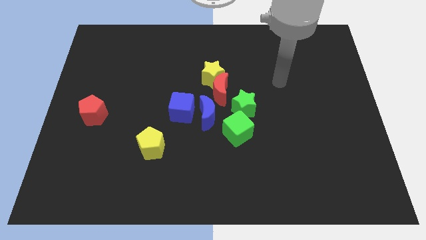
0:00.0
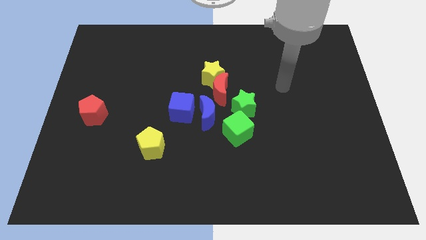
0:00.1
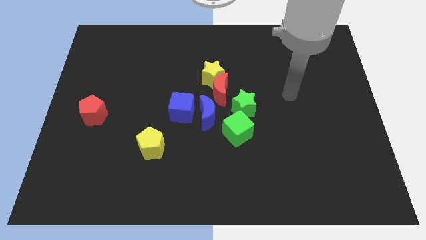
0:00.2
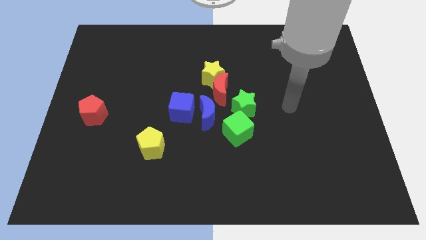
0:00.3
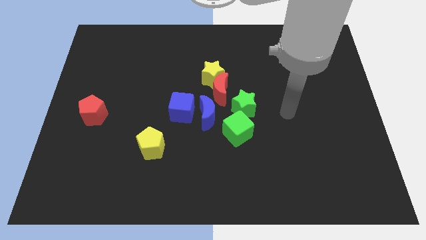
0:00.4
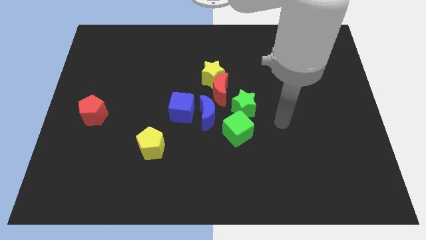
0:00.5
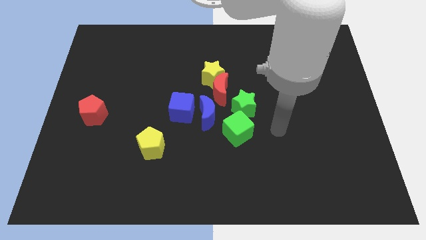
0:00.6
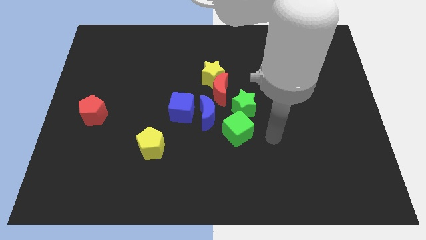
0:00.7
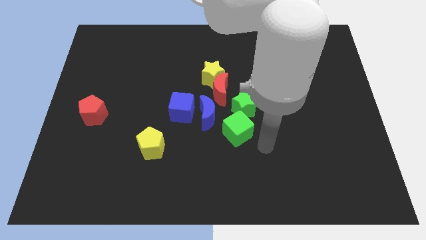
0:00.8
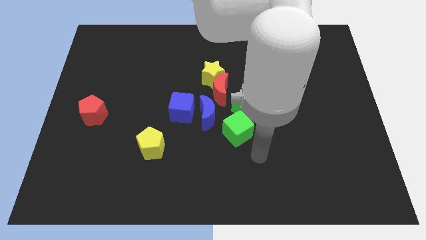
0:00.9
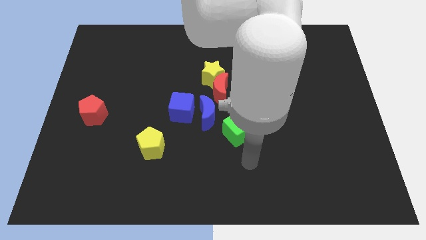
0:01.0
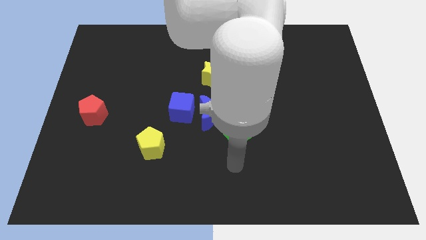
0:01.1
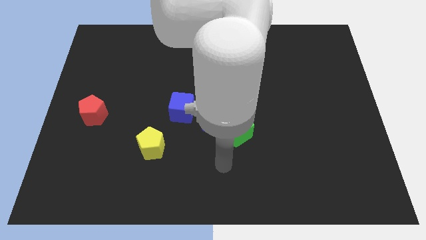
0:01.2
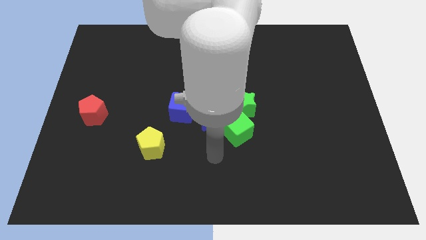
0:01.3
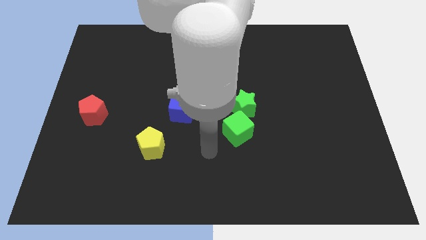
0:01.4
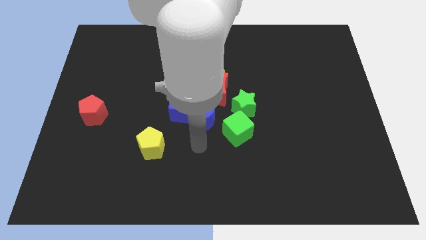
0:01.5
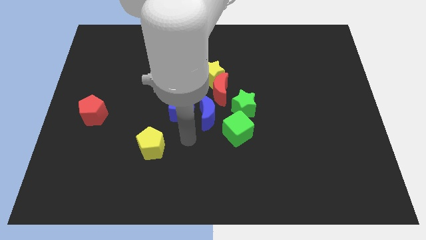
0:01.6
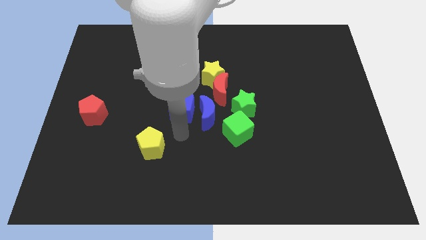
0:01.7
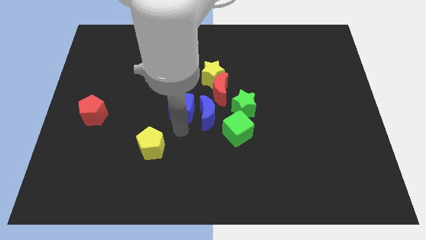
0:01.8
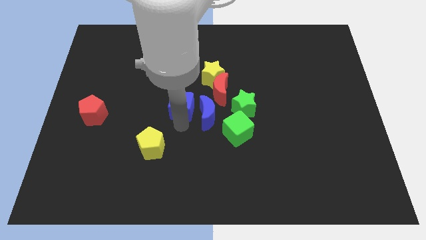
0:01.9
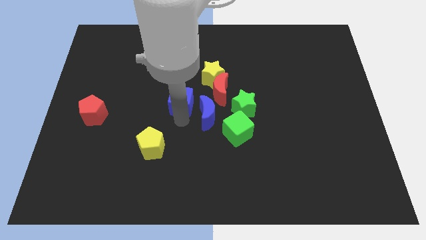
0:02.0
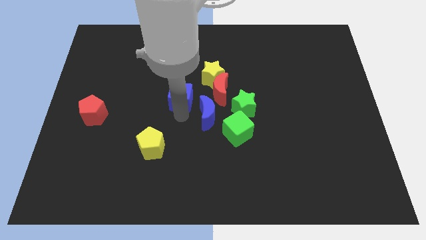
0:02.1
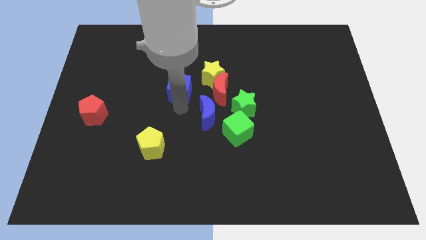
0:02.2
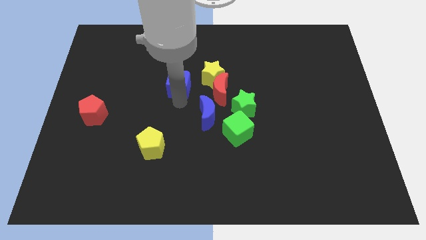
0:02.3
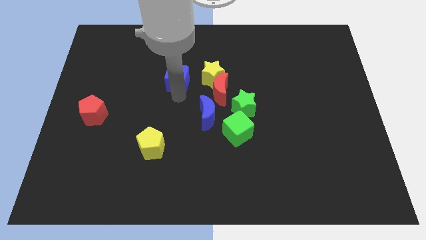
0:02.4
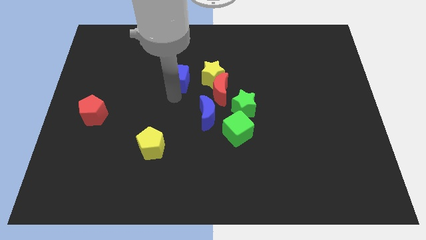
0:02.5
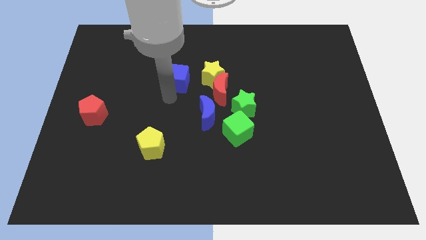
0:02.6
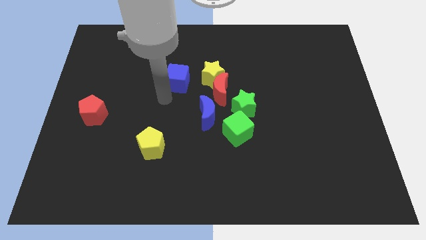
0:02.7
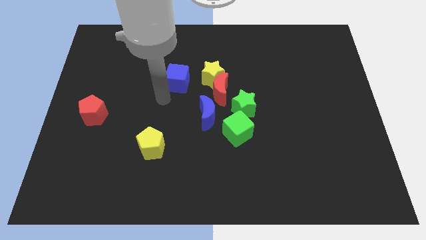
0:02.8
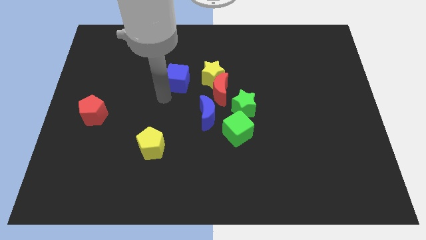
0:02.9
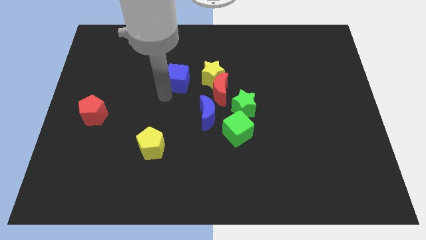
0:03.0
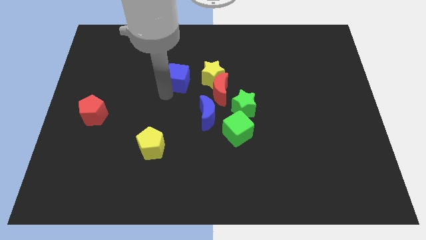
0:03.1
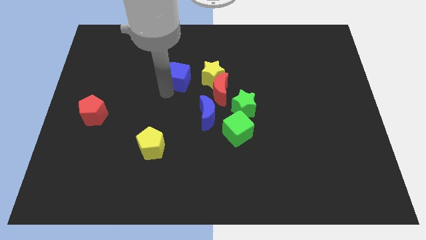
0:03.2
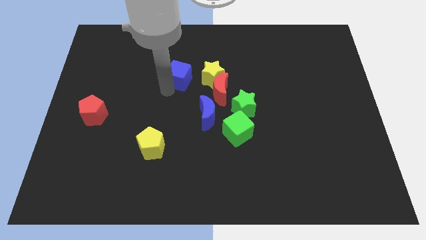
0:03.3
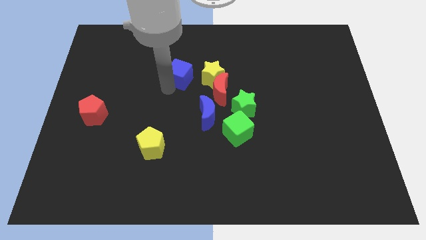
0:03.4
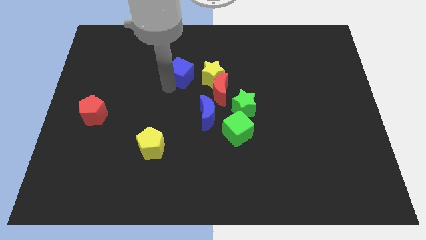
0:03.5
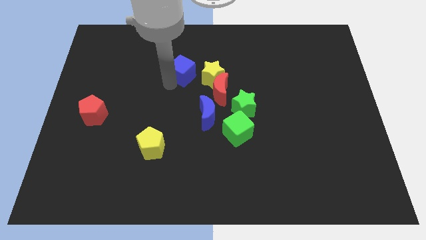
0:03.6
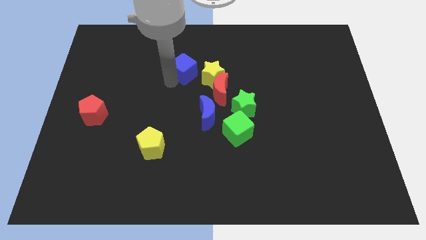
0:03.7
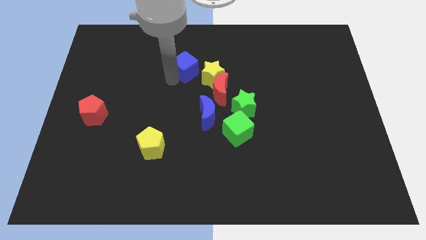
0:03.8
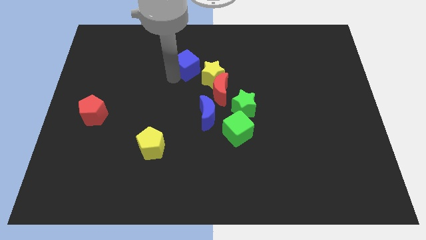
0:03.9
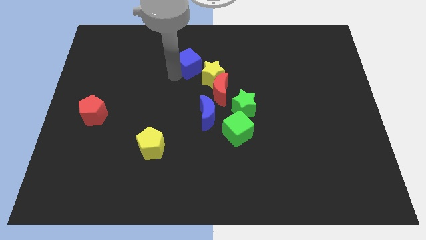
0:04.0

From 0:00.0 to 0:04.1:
push the blue cube a little bit diagonally upwards and to the right

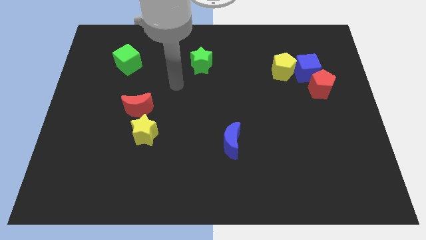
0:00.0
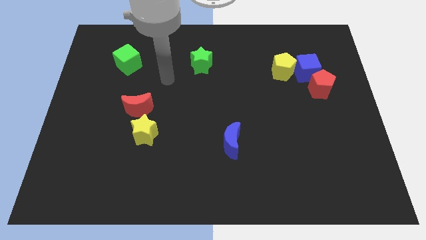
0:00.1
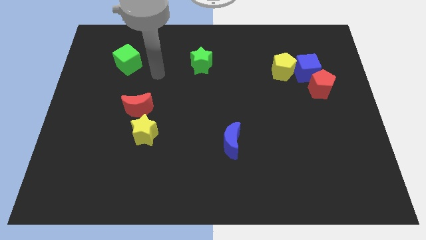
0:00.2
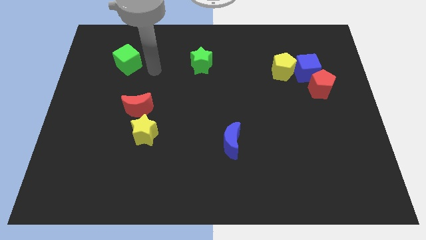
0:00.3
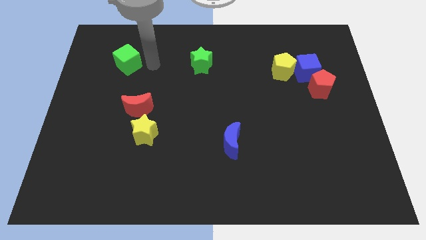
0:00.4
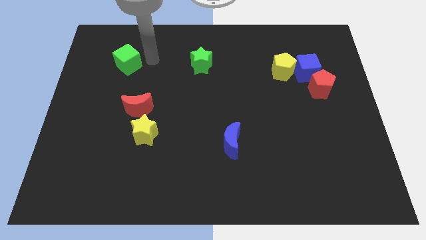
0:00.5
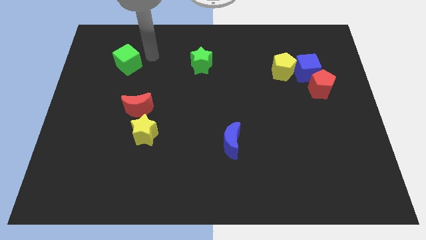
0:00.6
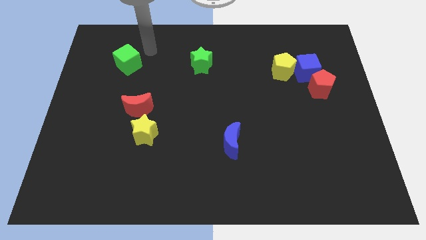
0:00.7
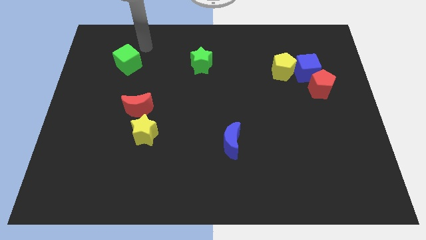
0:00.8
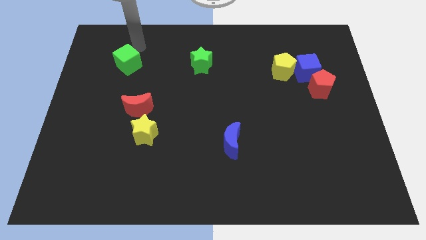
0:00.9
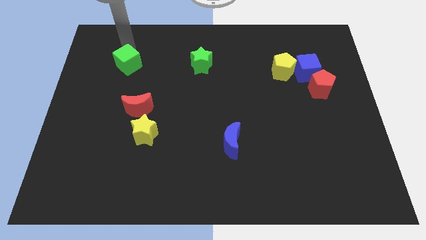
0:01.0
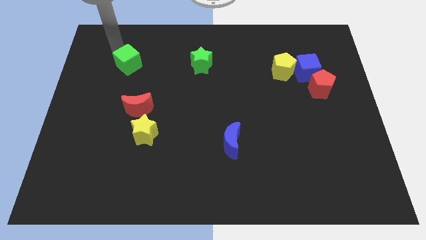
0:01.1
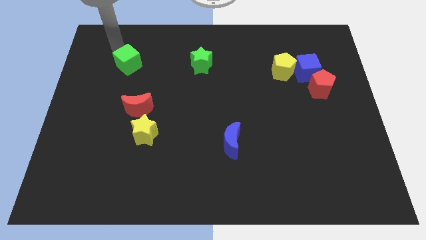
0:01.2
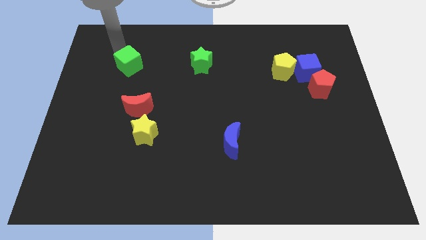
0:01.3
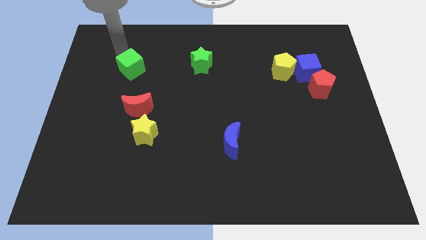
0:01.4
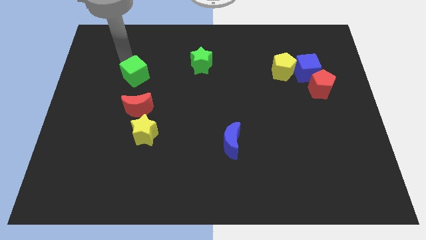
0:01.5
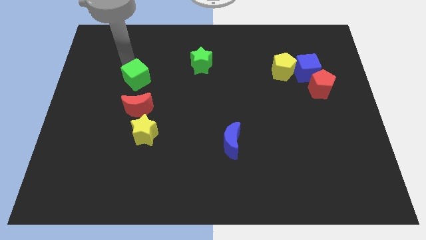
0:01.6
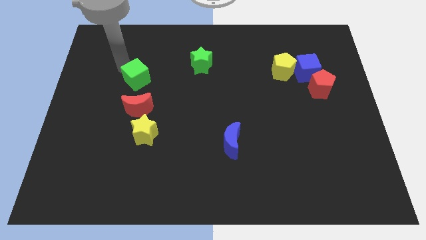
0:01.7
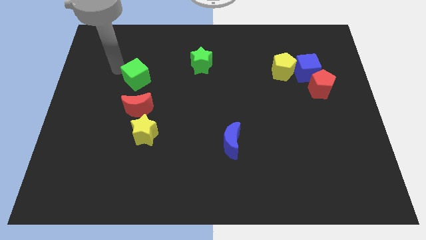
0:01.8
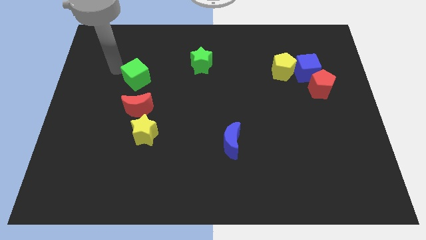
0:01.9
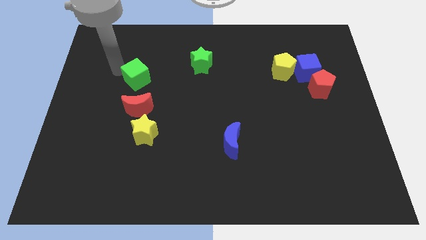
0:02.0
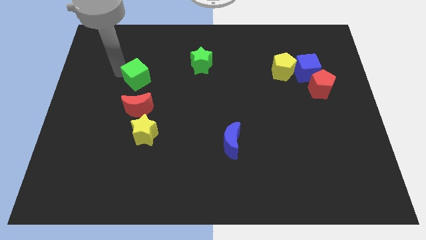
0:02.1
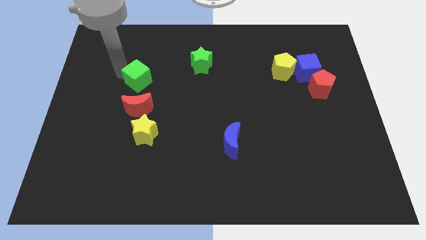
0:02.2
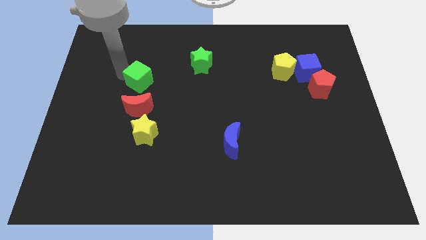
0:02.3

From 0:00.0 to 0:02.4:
push the green cube somewhat down and to the right

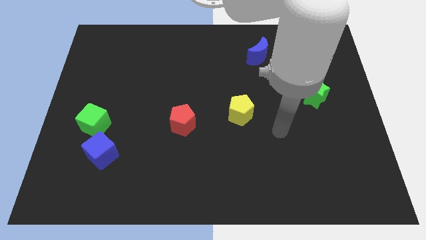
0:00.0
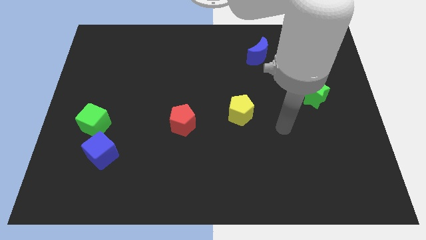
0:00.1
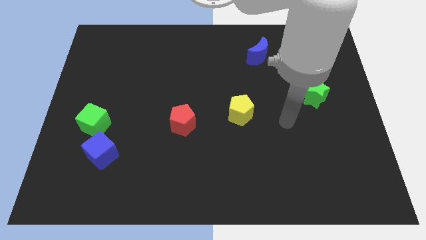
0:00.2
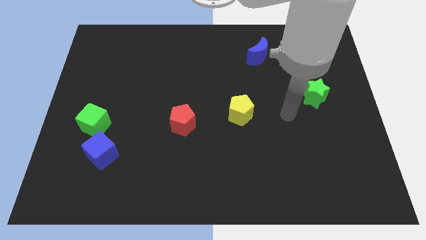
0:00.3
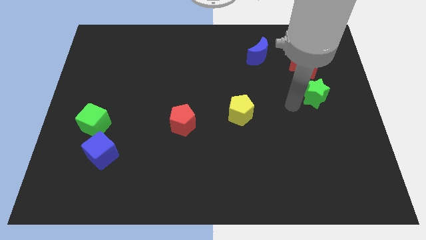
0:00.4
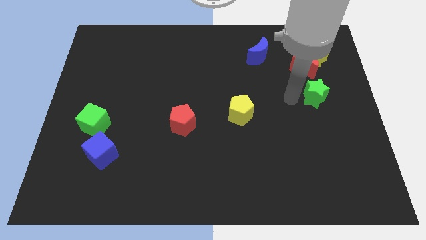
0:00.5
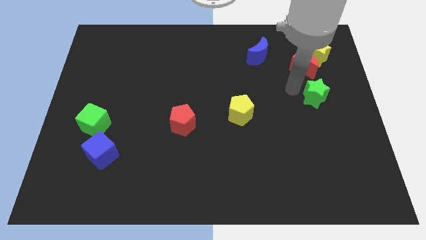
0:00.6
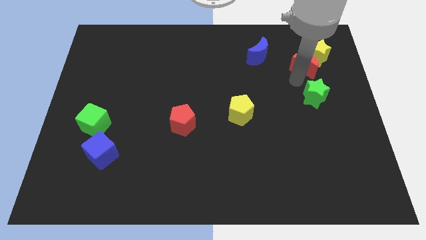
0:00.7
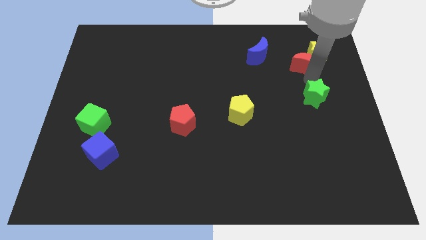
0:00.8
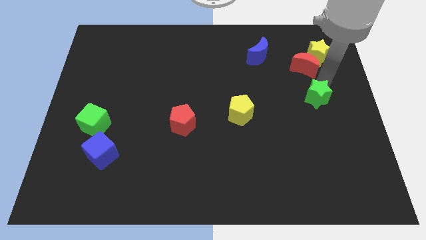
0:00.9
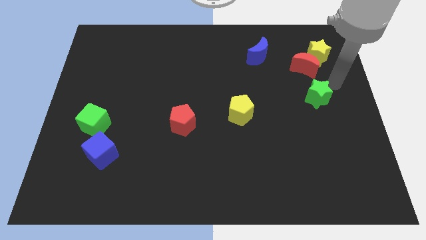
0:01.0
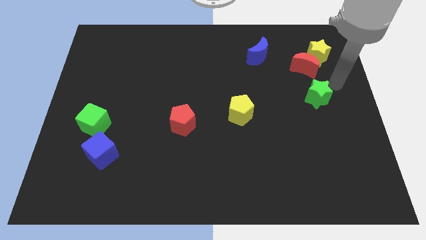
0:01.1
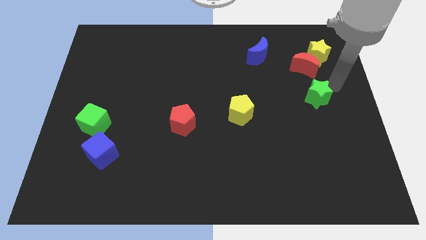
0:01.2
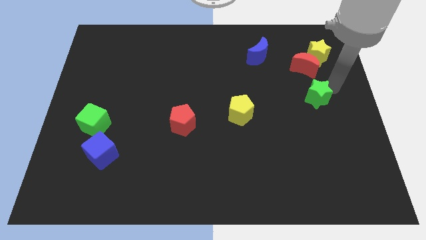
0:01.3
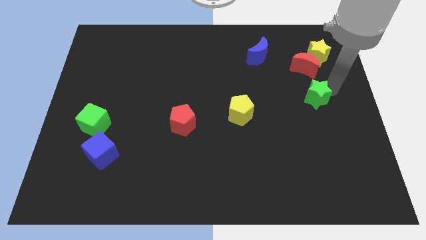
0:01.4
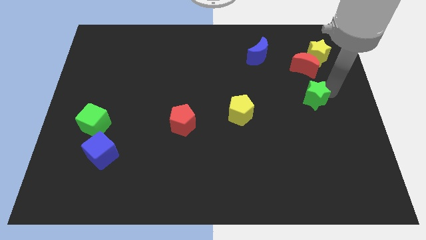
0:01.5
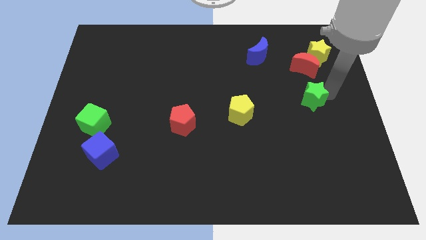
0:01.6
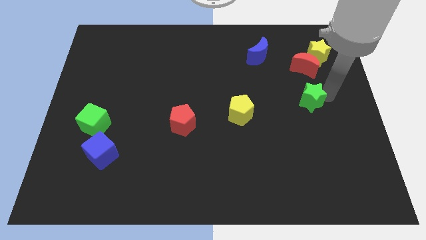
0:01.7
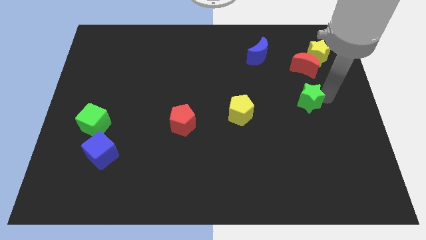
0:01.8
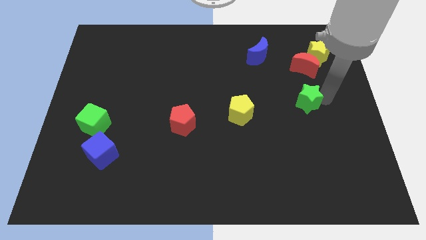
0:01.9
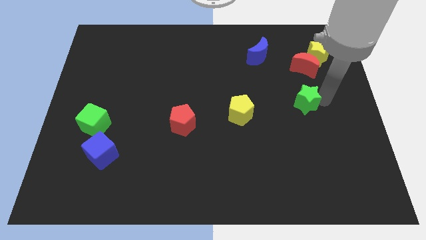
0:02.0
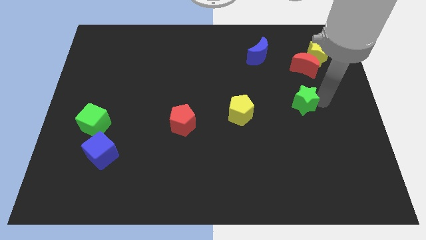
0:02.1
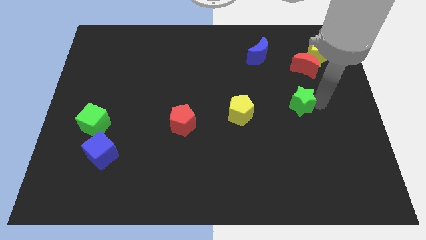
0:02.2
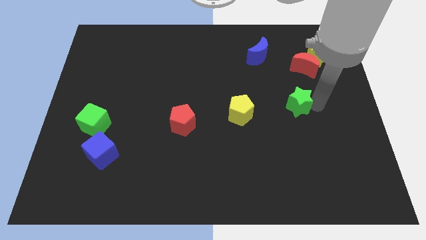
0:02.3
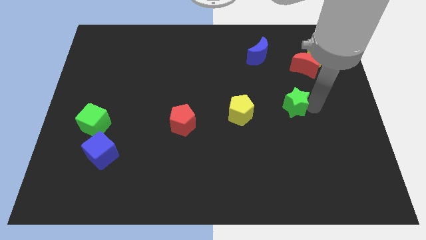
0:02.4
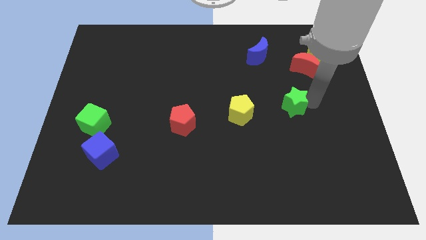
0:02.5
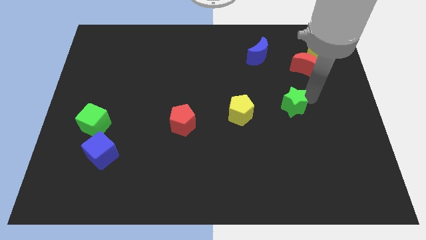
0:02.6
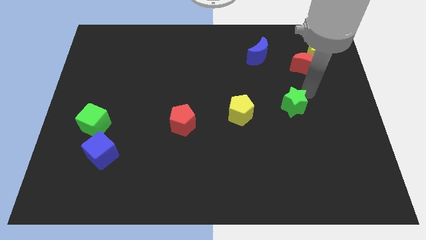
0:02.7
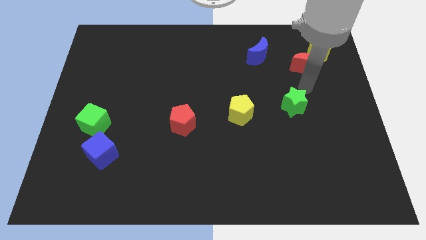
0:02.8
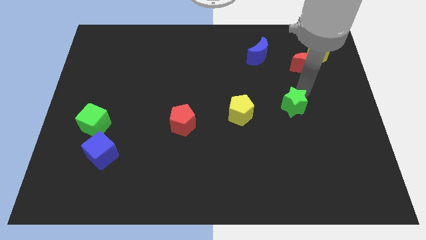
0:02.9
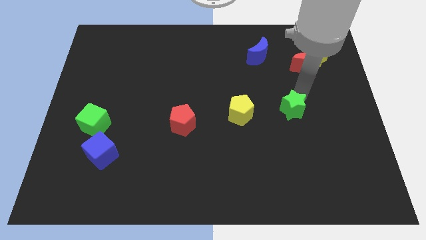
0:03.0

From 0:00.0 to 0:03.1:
slightly push the green star downwards and to the left diagonally
